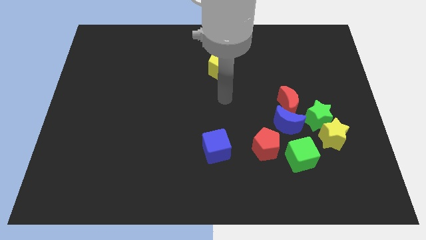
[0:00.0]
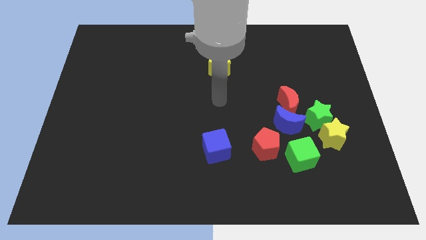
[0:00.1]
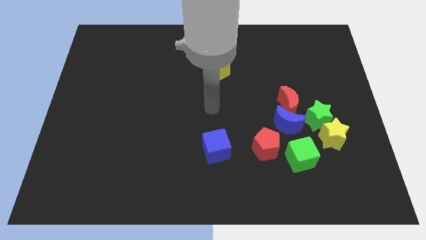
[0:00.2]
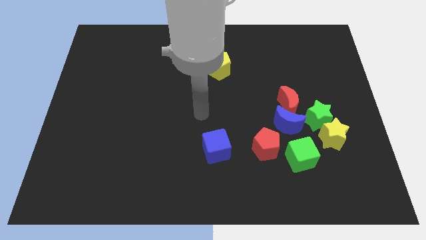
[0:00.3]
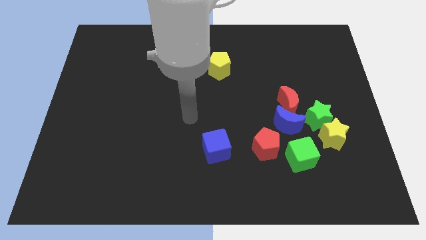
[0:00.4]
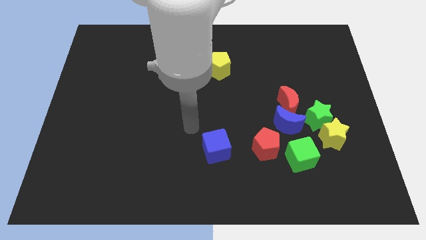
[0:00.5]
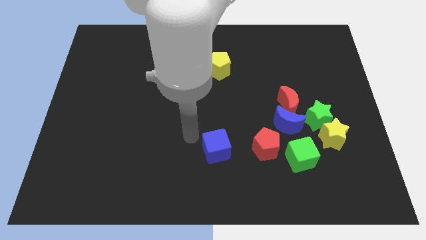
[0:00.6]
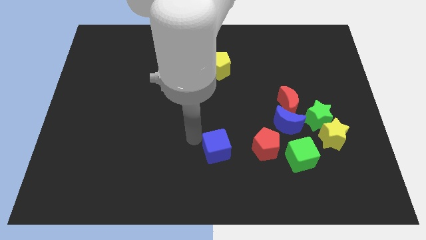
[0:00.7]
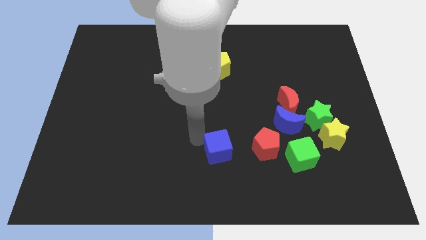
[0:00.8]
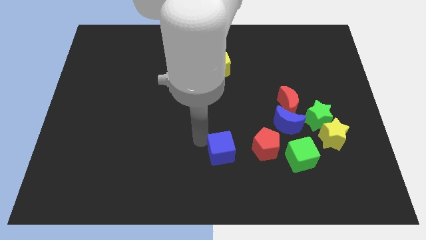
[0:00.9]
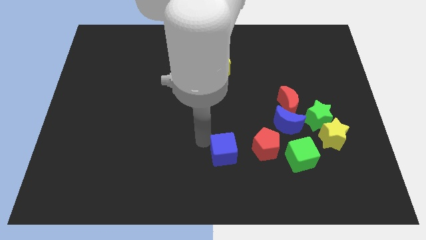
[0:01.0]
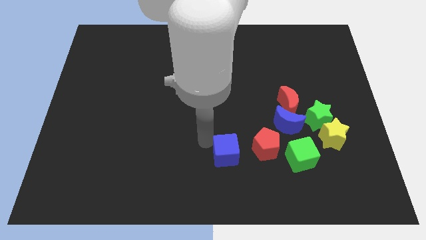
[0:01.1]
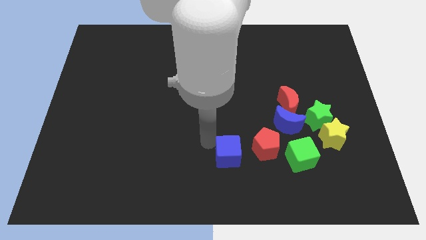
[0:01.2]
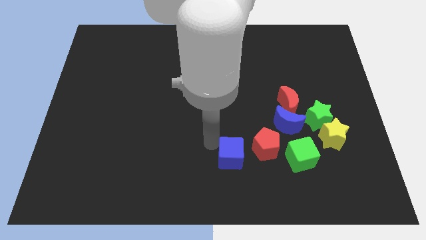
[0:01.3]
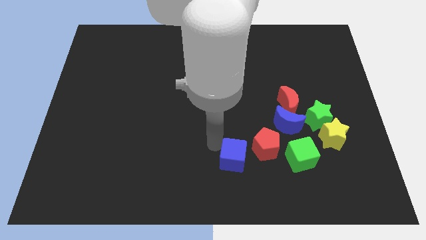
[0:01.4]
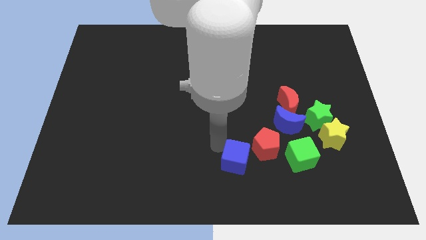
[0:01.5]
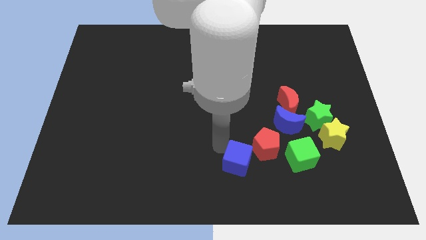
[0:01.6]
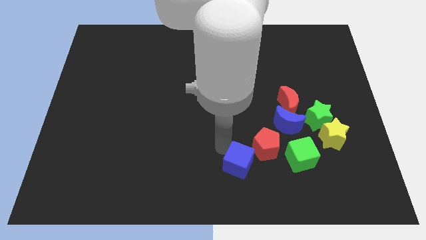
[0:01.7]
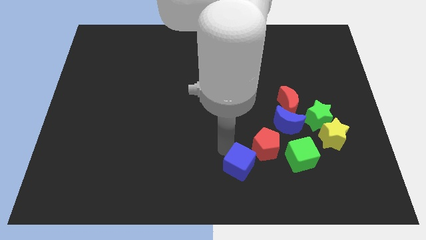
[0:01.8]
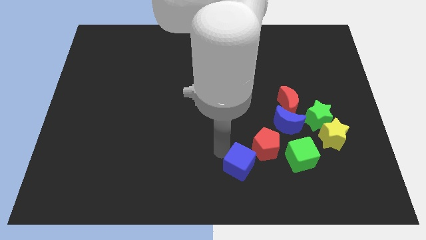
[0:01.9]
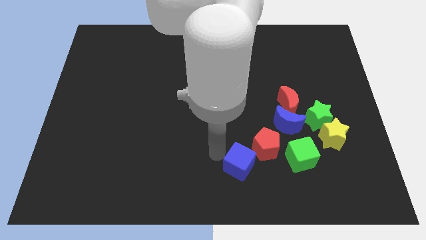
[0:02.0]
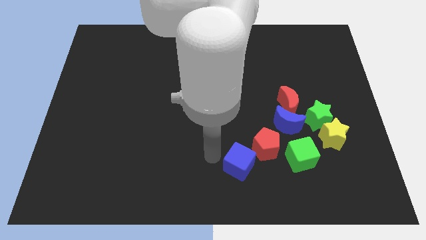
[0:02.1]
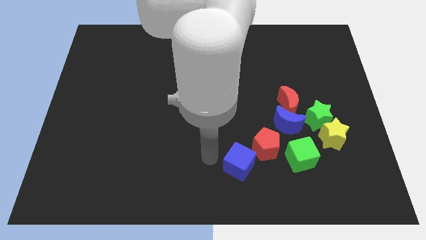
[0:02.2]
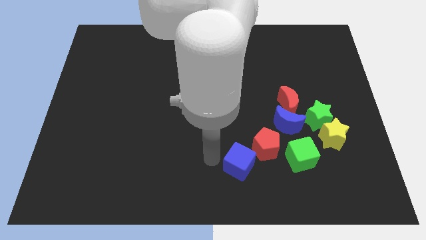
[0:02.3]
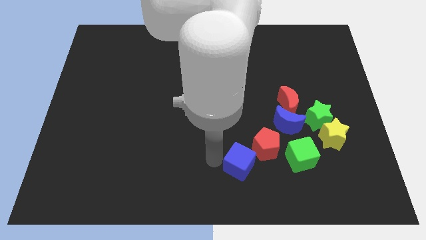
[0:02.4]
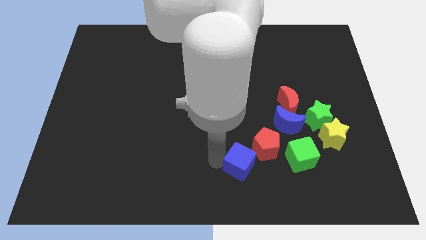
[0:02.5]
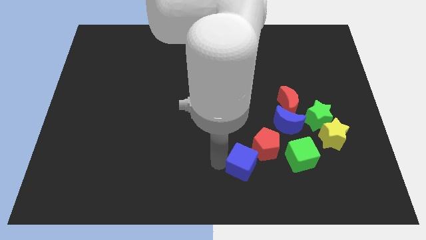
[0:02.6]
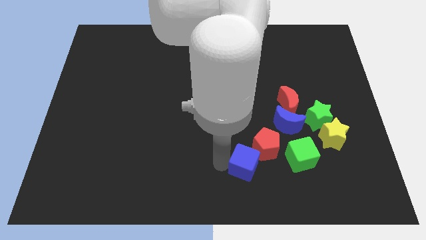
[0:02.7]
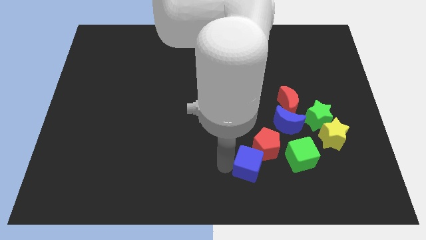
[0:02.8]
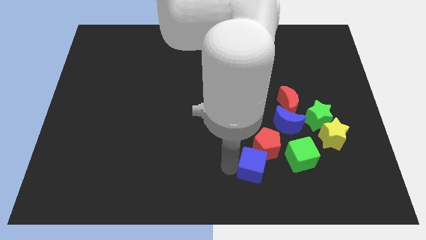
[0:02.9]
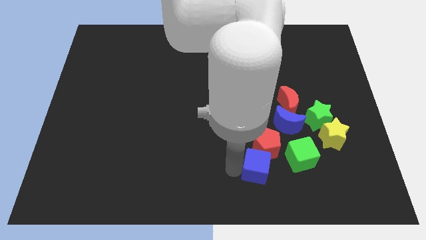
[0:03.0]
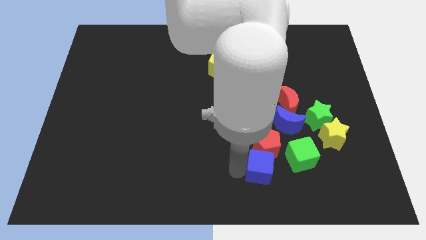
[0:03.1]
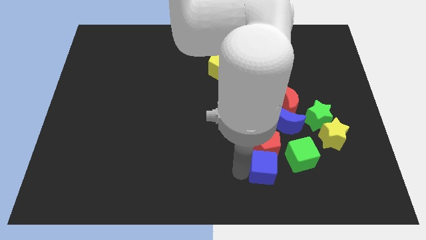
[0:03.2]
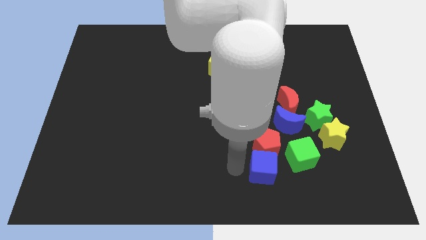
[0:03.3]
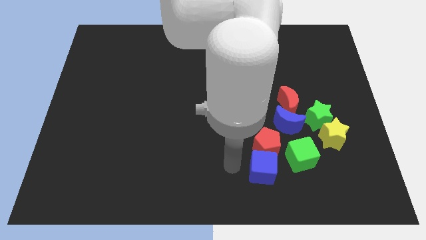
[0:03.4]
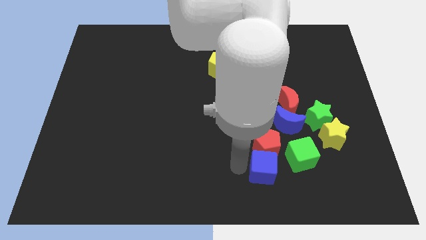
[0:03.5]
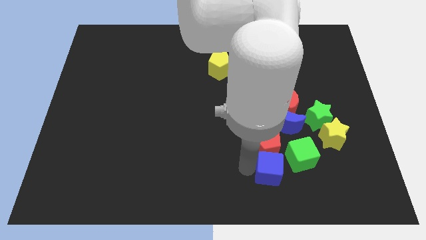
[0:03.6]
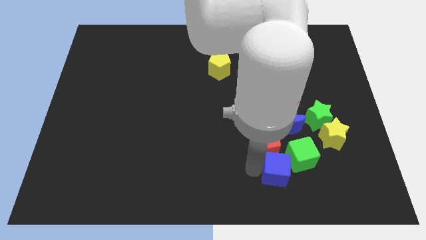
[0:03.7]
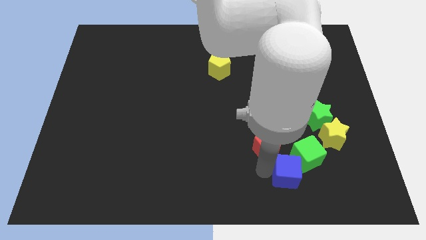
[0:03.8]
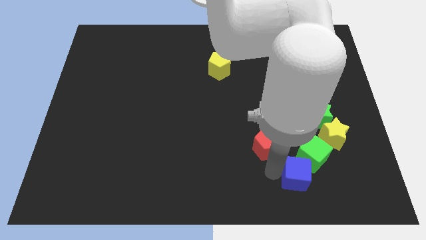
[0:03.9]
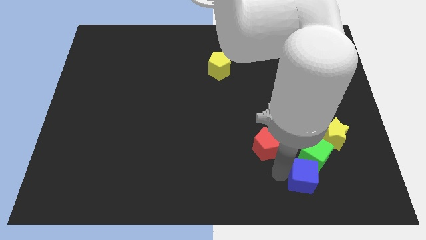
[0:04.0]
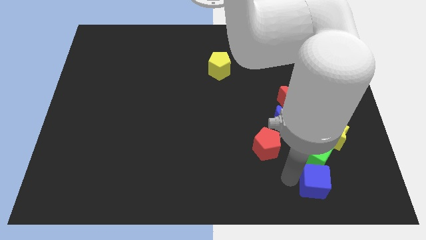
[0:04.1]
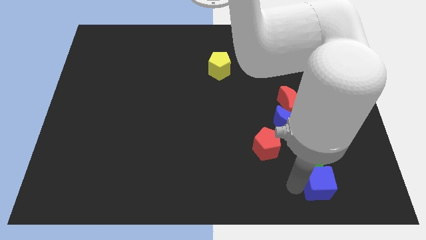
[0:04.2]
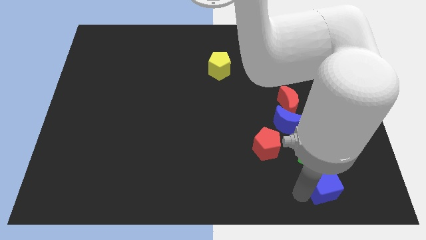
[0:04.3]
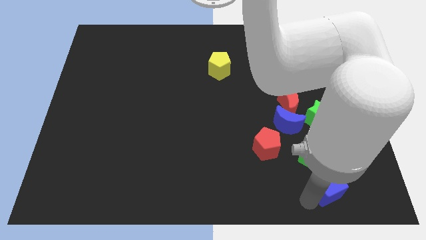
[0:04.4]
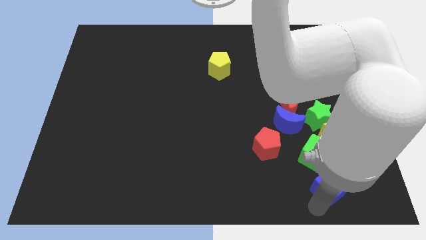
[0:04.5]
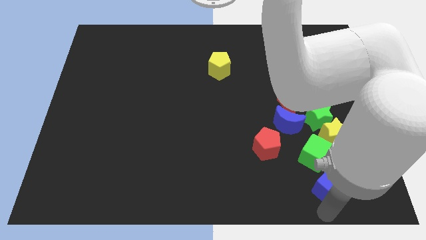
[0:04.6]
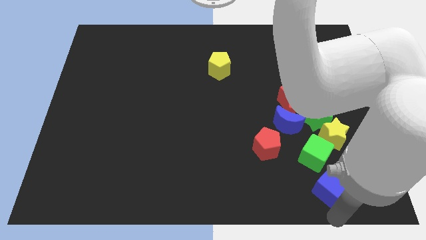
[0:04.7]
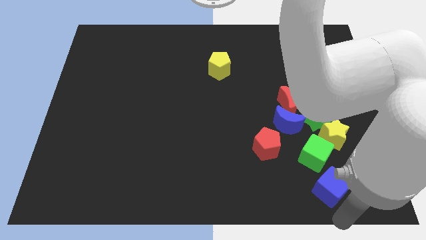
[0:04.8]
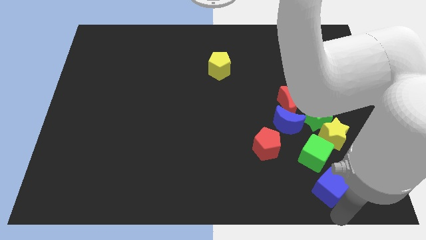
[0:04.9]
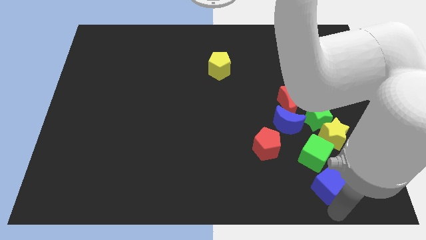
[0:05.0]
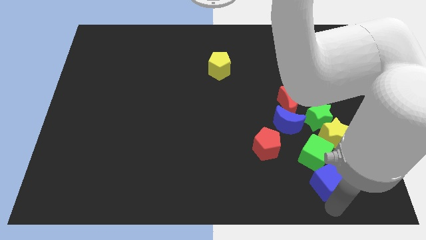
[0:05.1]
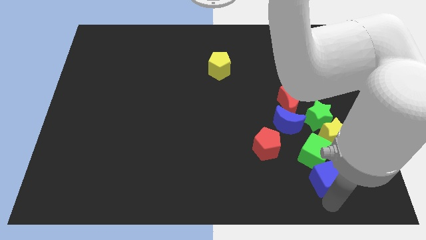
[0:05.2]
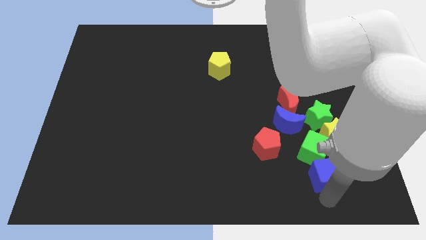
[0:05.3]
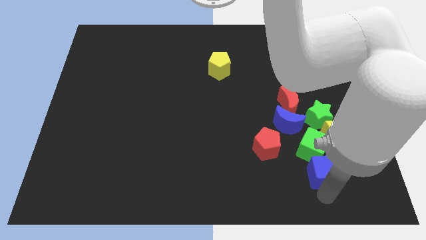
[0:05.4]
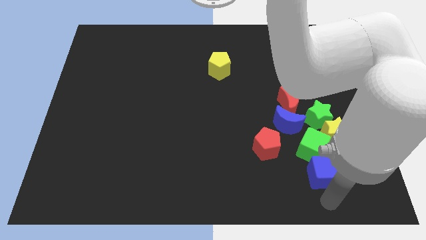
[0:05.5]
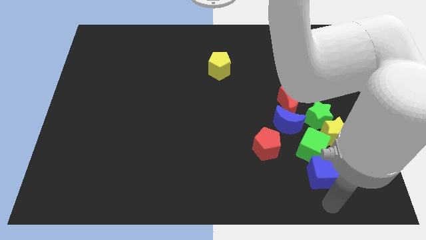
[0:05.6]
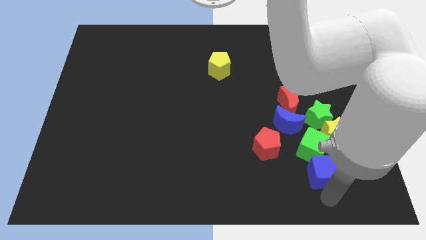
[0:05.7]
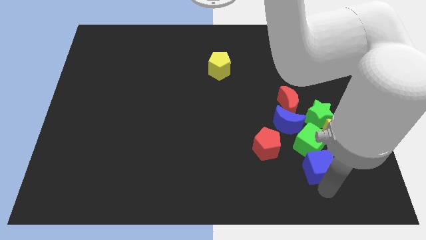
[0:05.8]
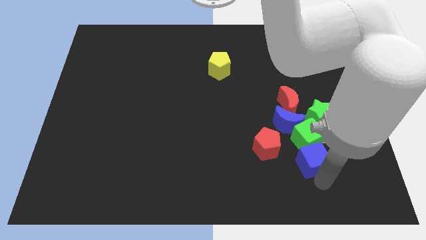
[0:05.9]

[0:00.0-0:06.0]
push the blue cube just right of the red pentagon
